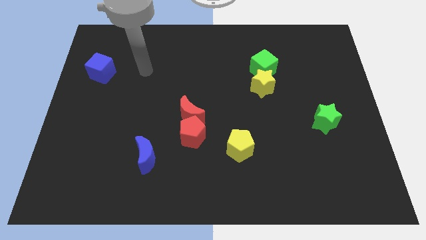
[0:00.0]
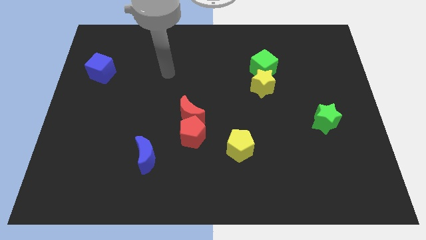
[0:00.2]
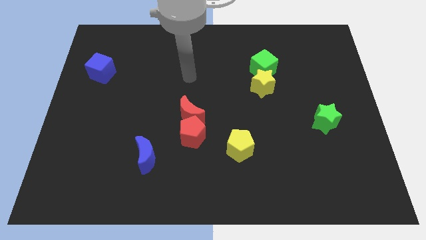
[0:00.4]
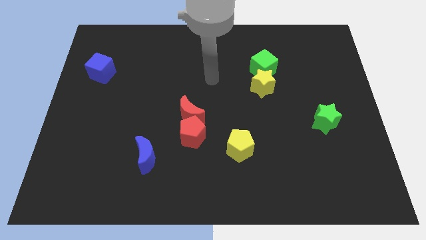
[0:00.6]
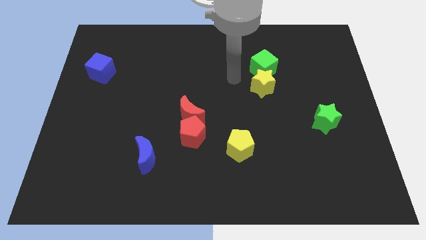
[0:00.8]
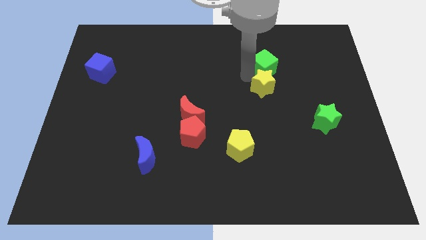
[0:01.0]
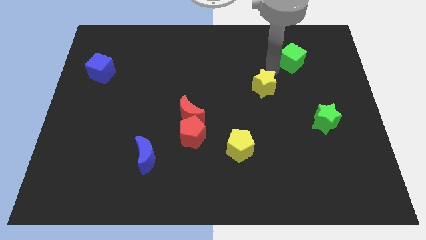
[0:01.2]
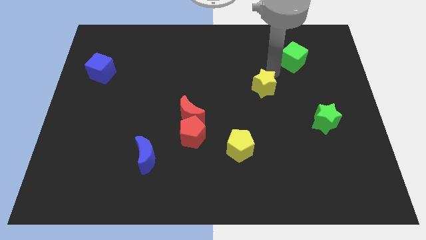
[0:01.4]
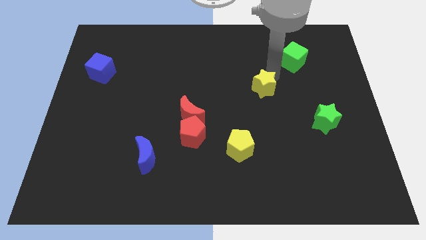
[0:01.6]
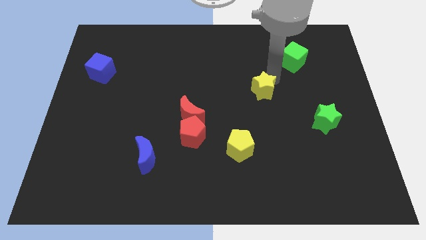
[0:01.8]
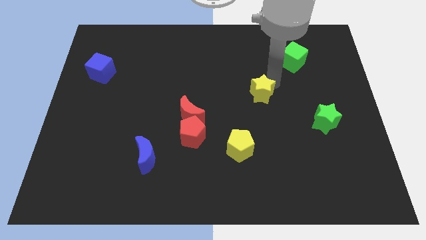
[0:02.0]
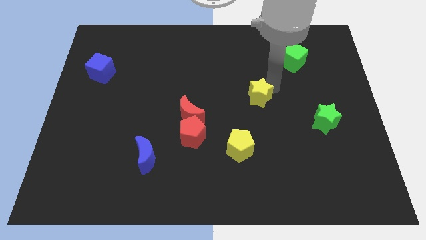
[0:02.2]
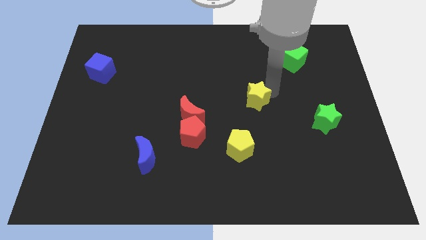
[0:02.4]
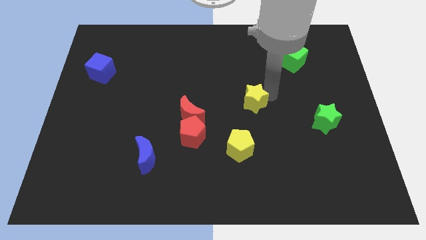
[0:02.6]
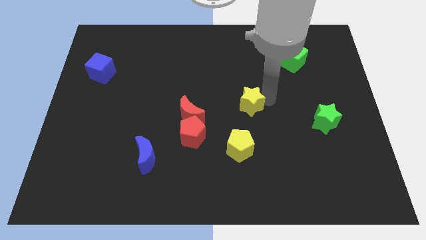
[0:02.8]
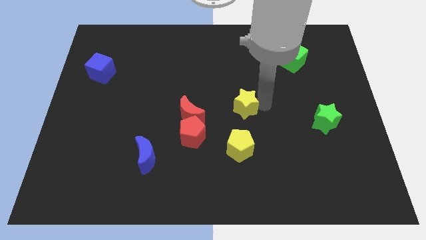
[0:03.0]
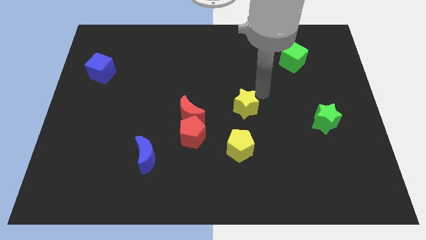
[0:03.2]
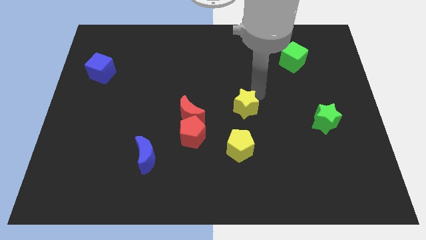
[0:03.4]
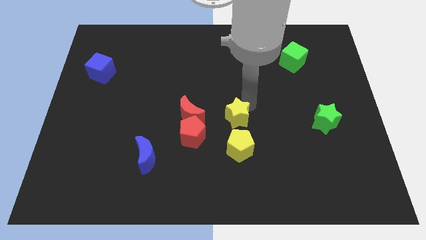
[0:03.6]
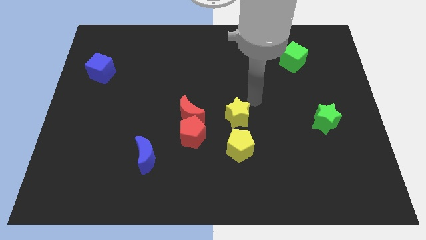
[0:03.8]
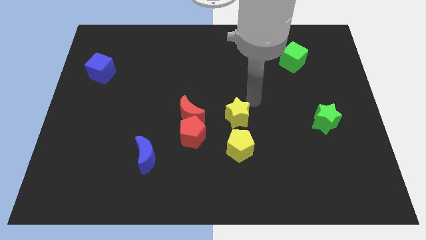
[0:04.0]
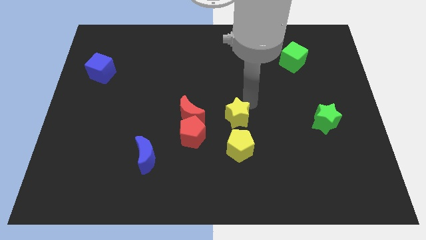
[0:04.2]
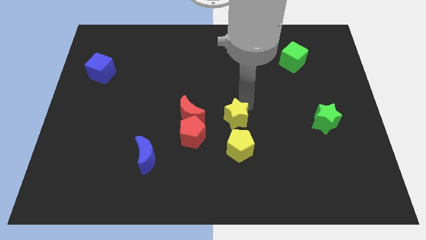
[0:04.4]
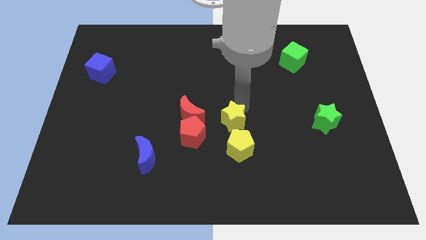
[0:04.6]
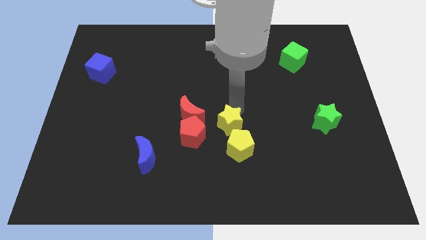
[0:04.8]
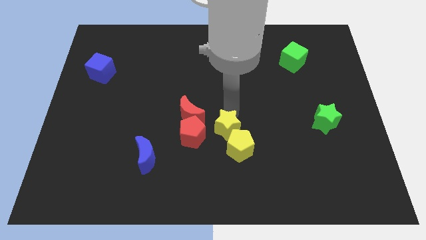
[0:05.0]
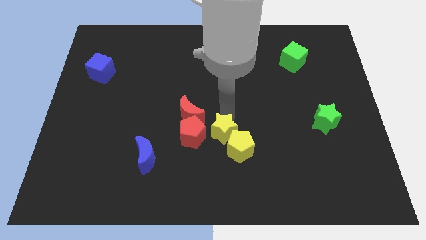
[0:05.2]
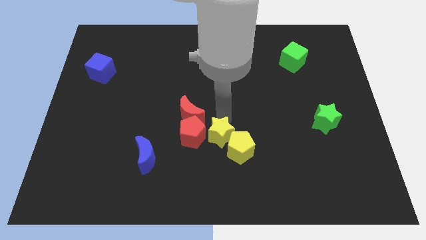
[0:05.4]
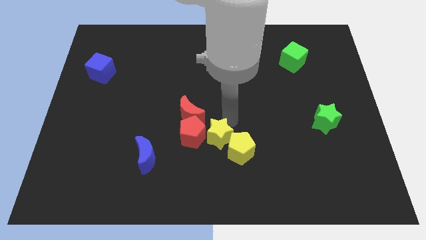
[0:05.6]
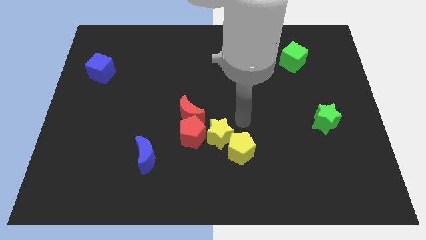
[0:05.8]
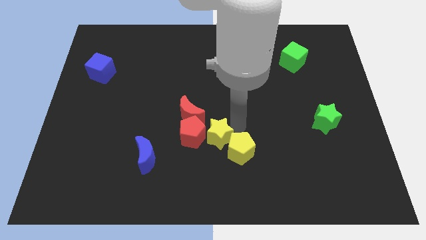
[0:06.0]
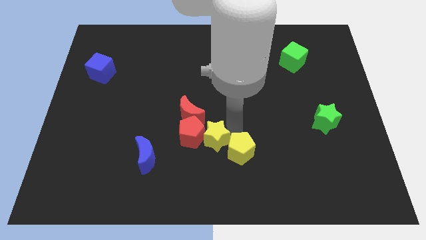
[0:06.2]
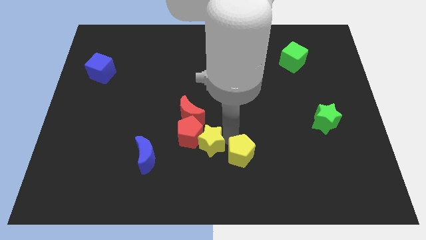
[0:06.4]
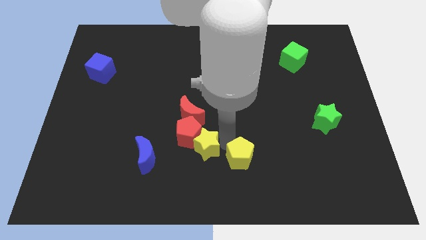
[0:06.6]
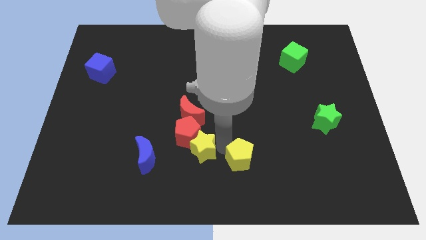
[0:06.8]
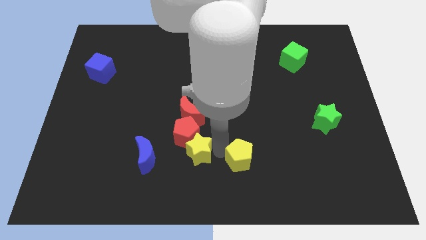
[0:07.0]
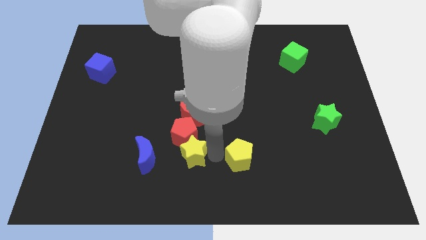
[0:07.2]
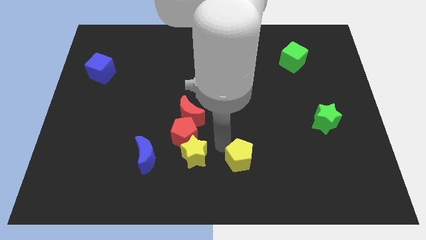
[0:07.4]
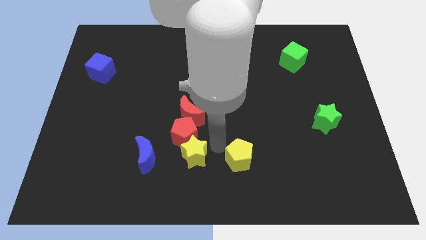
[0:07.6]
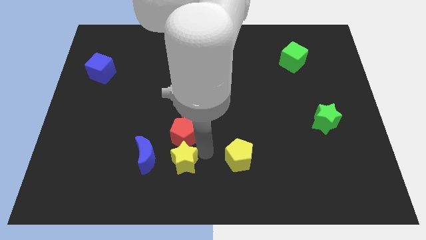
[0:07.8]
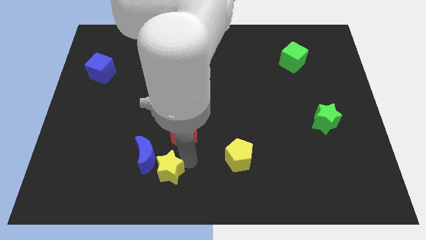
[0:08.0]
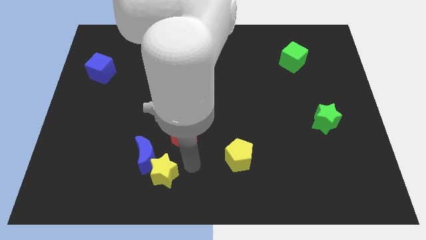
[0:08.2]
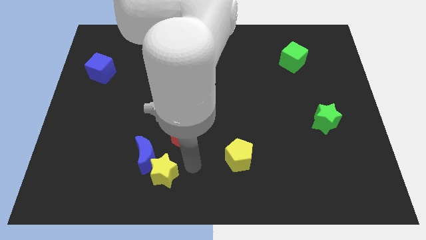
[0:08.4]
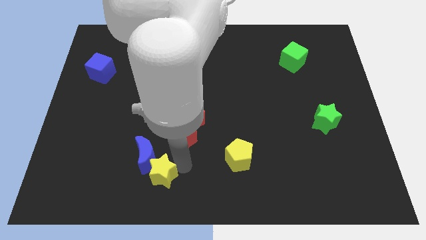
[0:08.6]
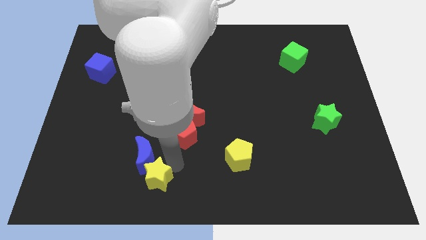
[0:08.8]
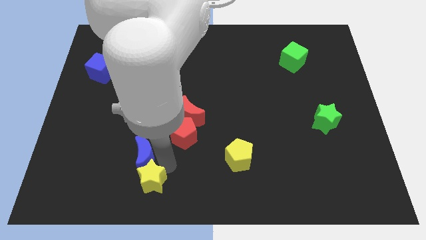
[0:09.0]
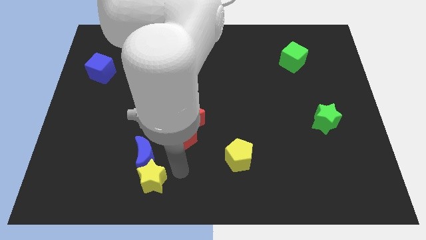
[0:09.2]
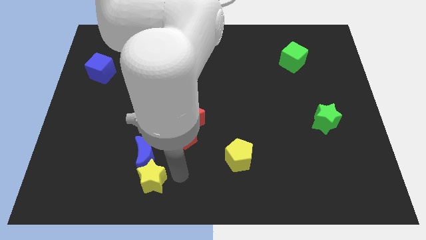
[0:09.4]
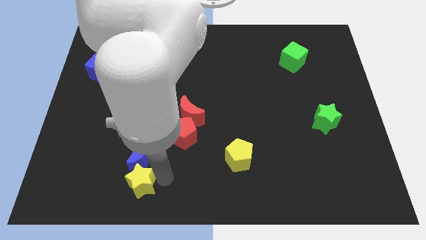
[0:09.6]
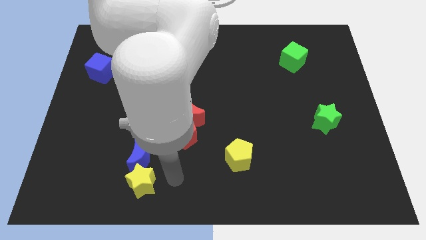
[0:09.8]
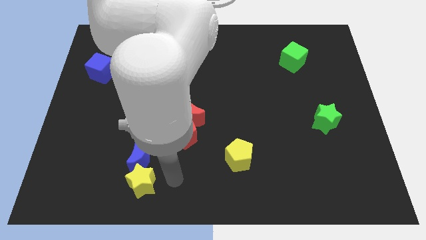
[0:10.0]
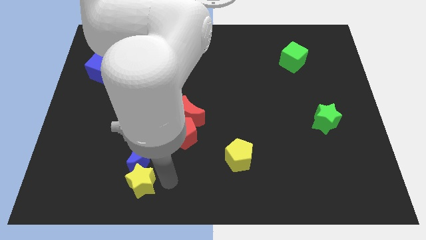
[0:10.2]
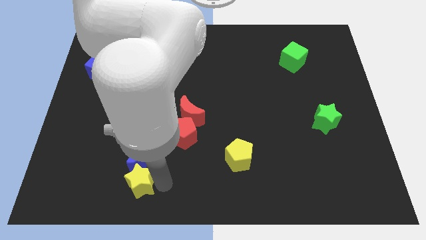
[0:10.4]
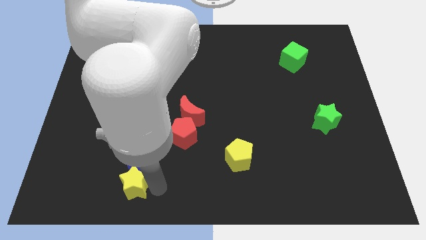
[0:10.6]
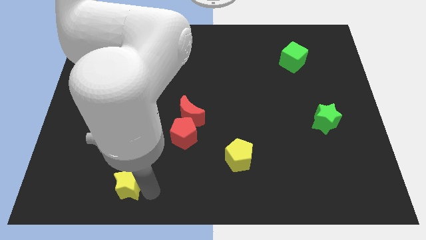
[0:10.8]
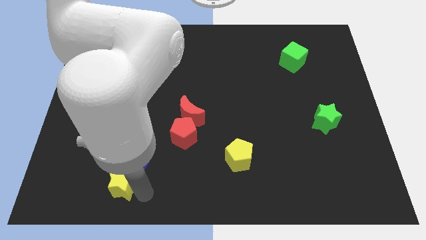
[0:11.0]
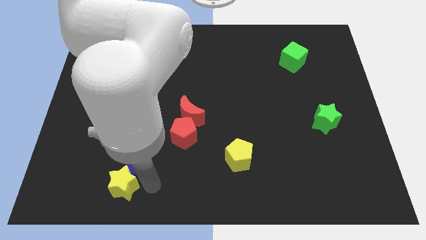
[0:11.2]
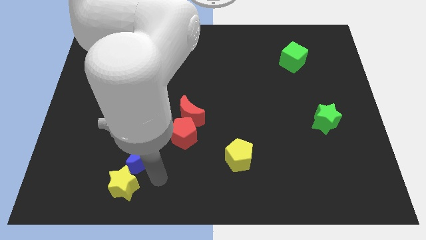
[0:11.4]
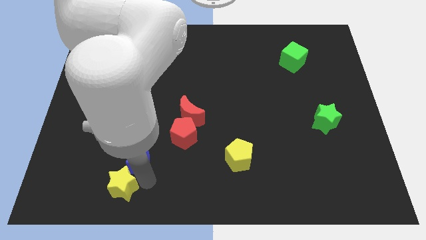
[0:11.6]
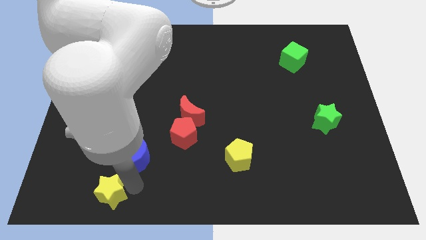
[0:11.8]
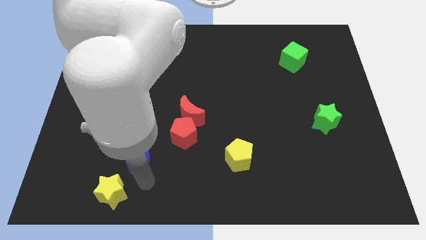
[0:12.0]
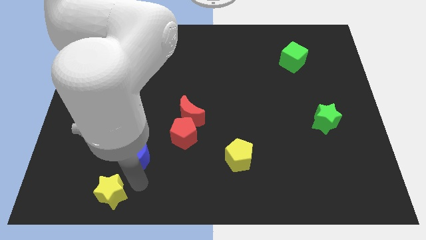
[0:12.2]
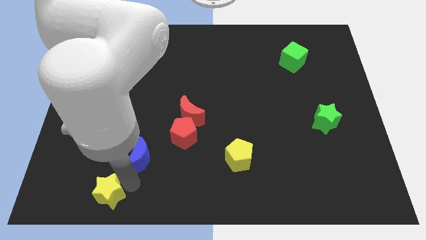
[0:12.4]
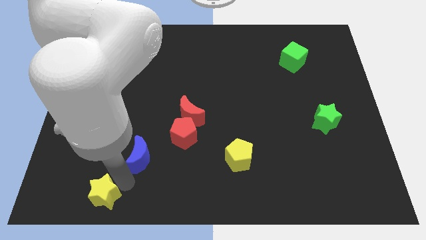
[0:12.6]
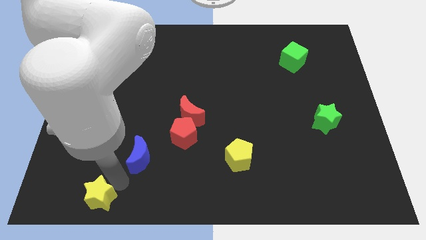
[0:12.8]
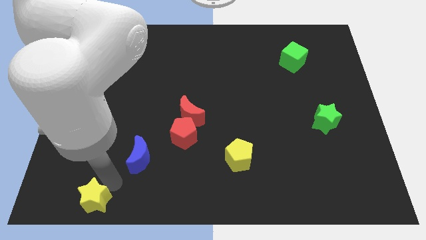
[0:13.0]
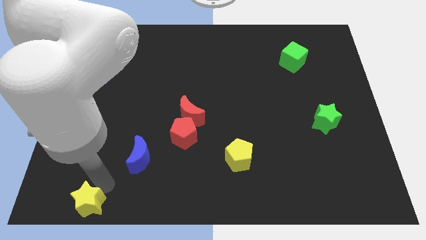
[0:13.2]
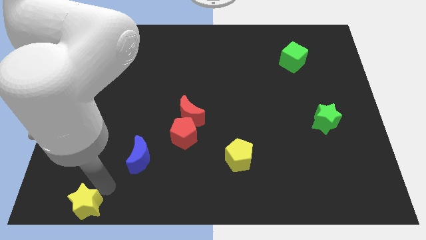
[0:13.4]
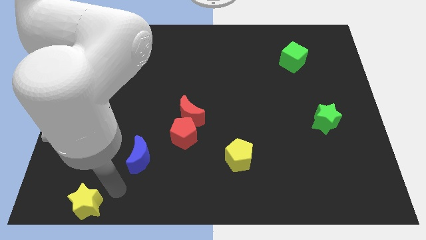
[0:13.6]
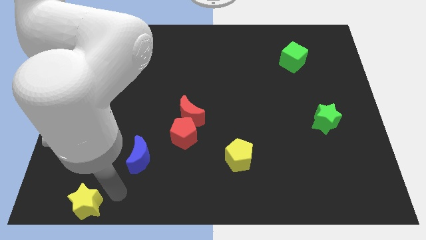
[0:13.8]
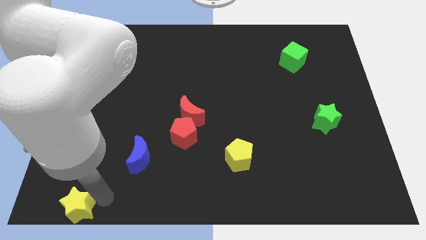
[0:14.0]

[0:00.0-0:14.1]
slide the yellow star to the bottom left
